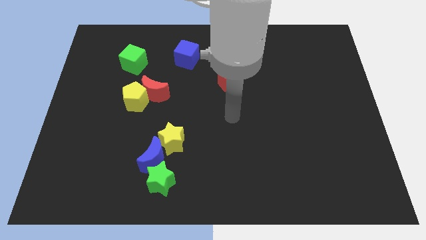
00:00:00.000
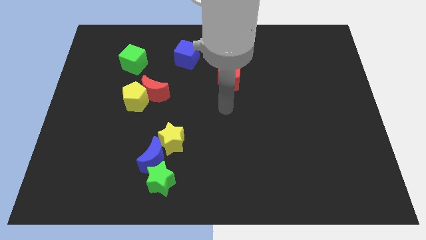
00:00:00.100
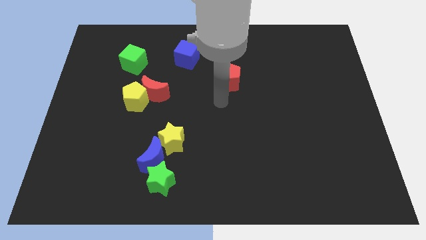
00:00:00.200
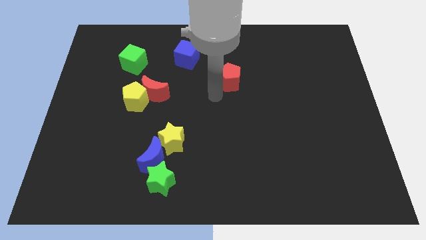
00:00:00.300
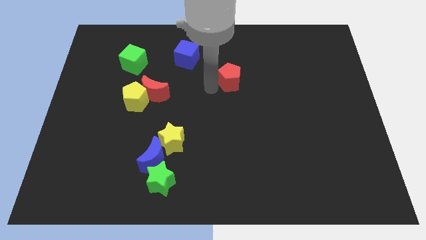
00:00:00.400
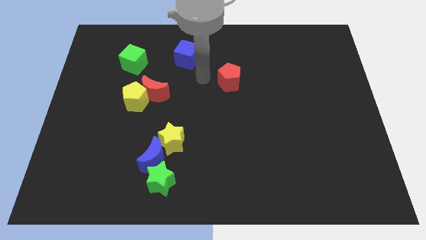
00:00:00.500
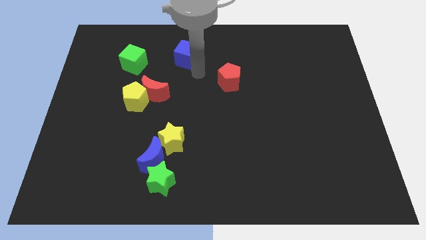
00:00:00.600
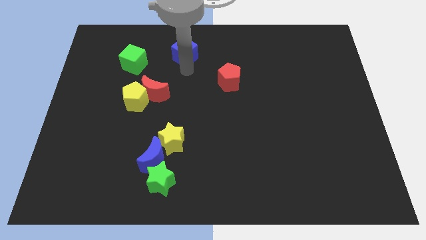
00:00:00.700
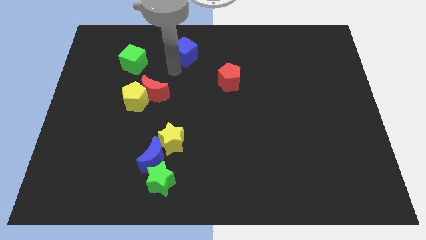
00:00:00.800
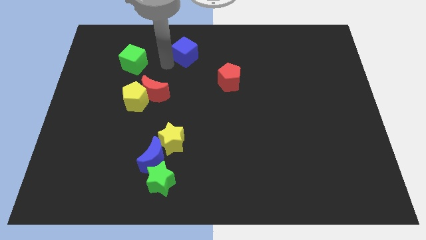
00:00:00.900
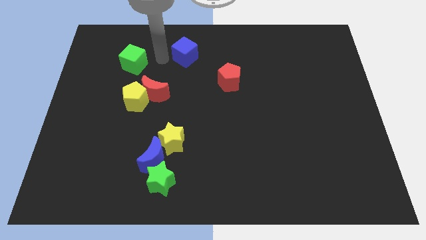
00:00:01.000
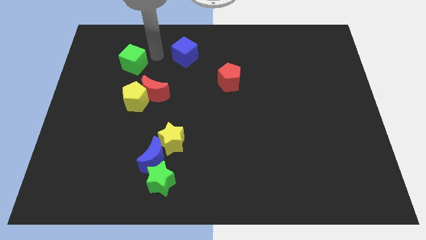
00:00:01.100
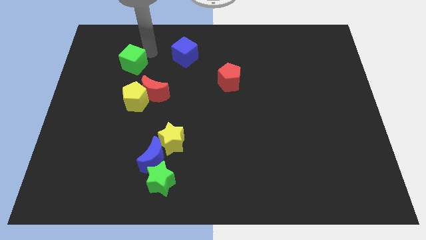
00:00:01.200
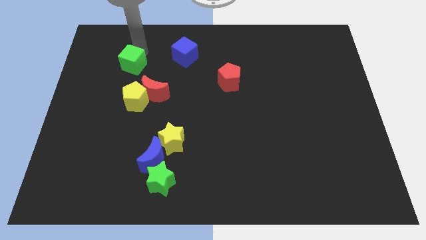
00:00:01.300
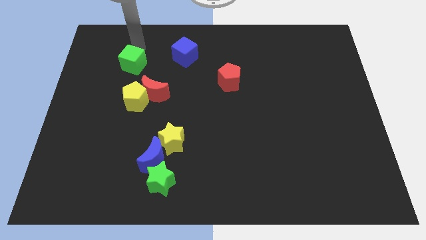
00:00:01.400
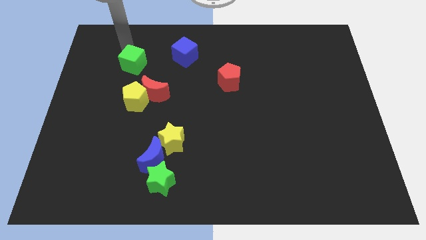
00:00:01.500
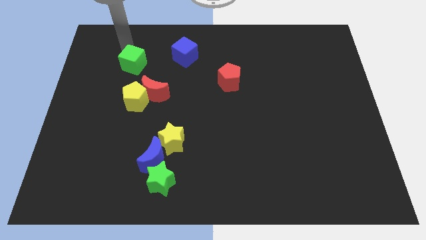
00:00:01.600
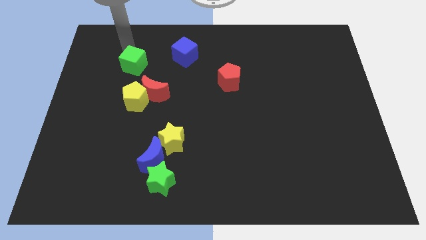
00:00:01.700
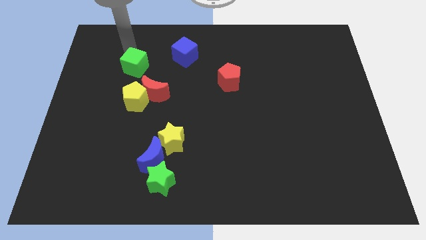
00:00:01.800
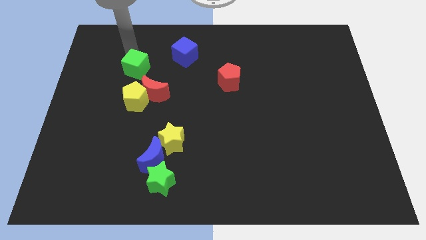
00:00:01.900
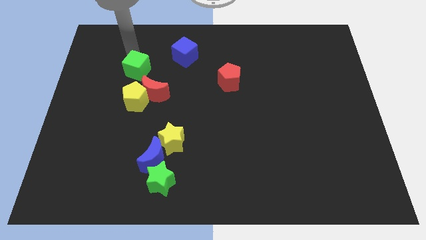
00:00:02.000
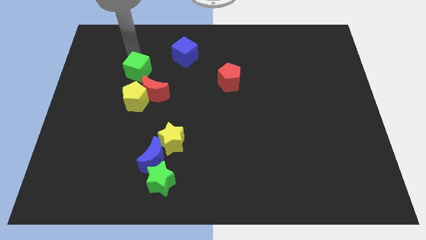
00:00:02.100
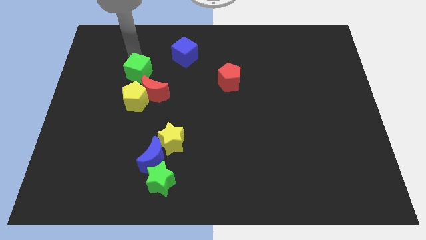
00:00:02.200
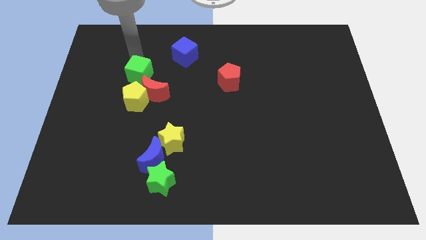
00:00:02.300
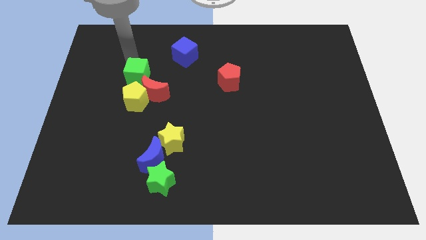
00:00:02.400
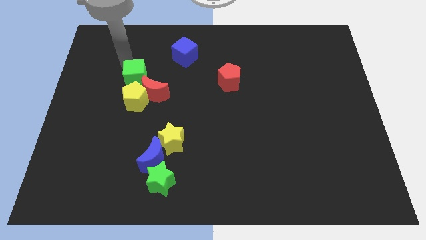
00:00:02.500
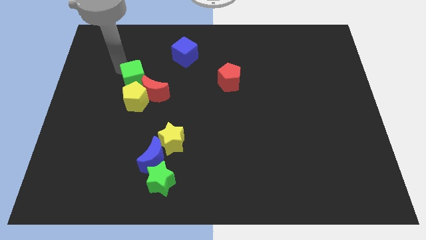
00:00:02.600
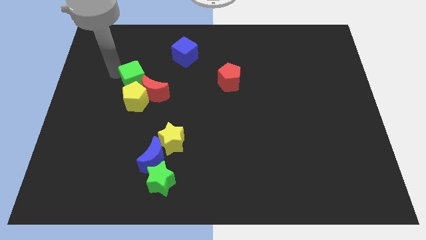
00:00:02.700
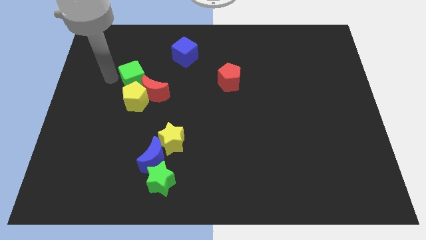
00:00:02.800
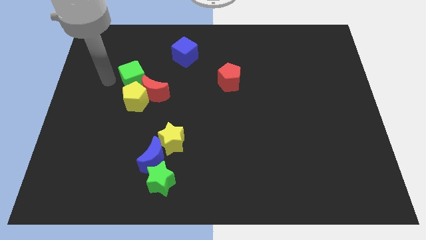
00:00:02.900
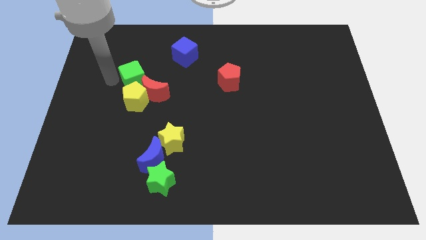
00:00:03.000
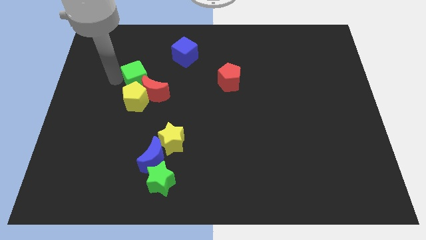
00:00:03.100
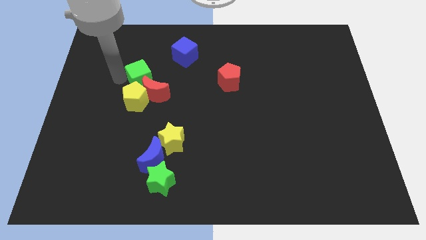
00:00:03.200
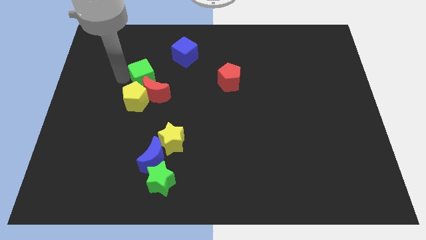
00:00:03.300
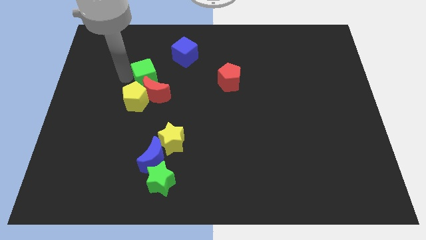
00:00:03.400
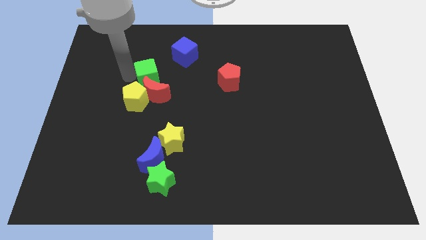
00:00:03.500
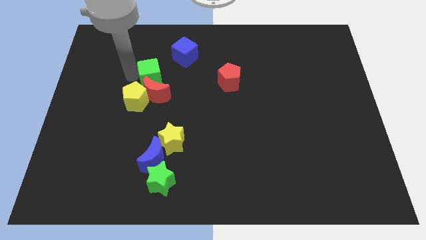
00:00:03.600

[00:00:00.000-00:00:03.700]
slightly push the green cube diagonally down and right

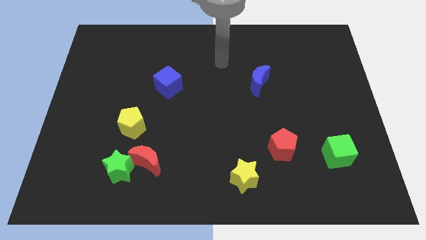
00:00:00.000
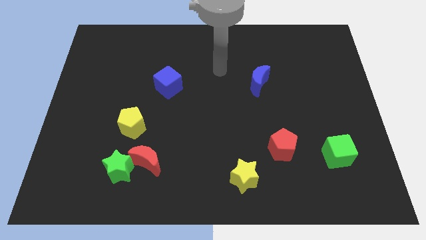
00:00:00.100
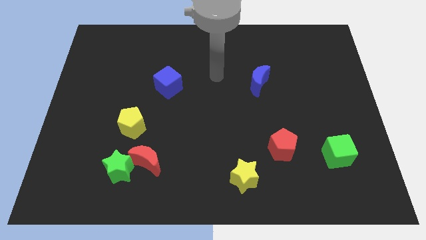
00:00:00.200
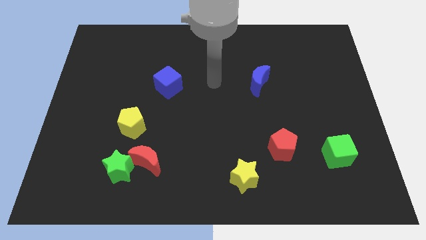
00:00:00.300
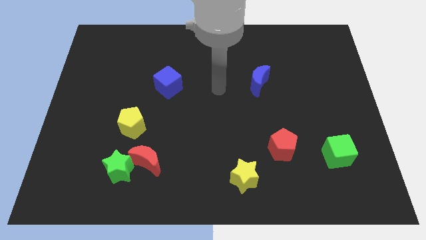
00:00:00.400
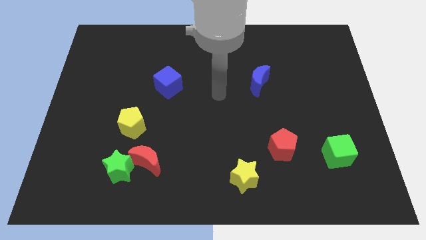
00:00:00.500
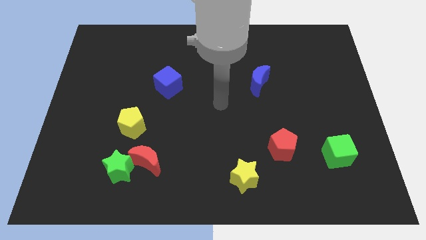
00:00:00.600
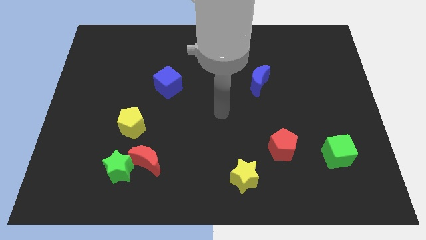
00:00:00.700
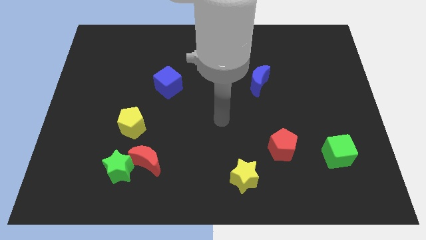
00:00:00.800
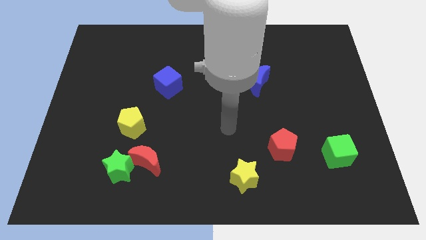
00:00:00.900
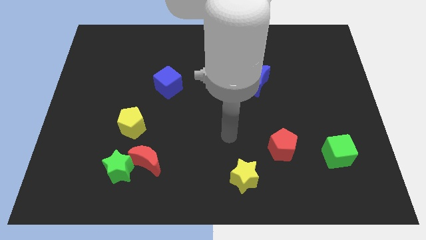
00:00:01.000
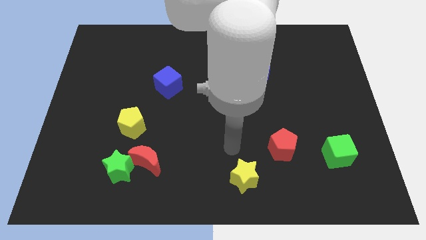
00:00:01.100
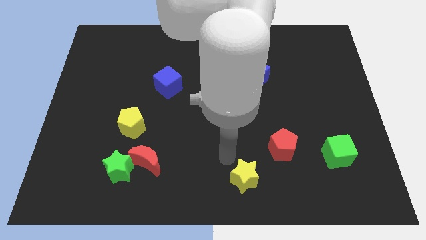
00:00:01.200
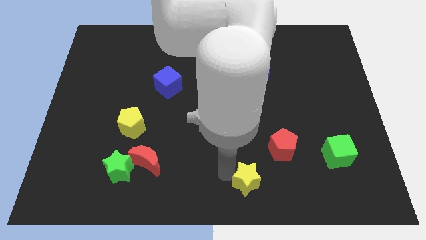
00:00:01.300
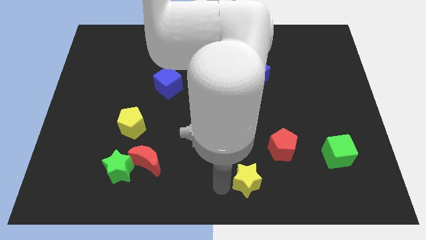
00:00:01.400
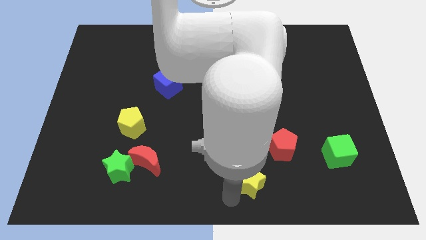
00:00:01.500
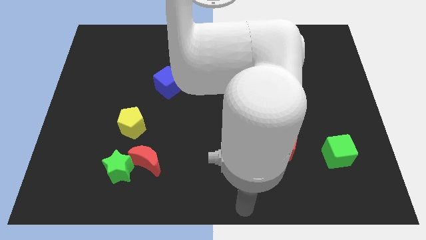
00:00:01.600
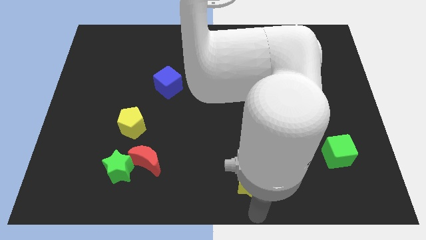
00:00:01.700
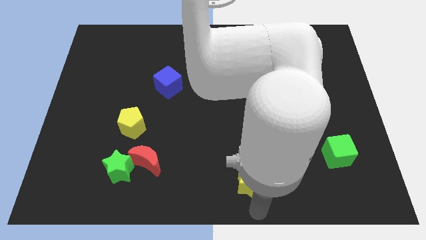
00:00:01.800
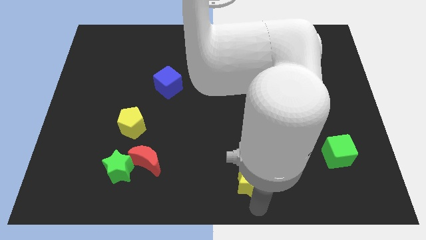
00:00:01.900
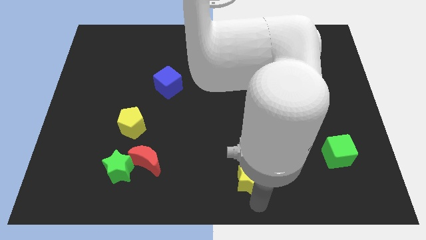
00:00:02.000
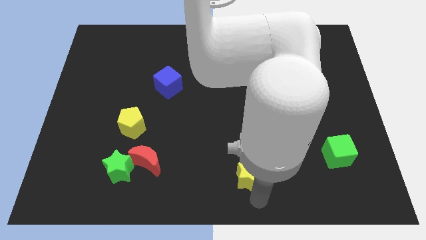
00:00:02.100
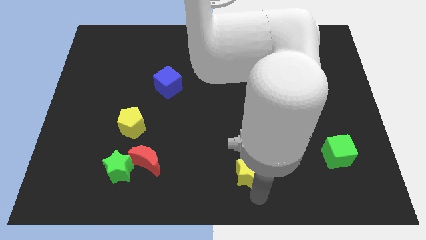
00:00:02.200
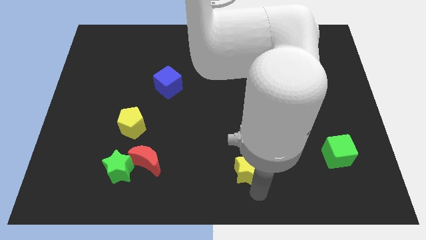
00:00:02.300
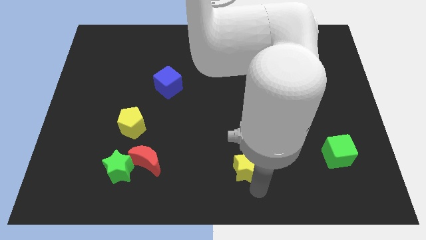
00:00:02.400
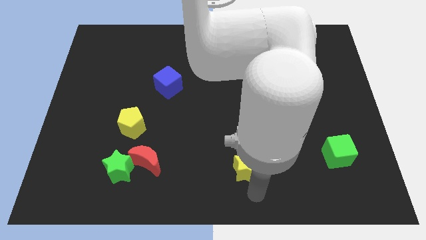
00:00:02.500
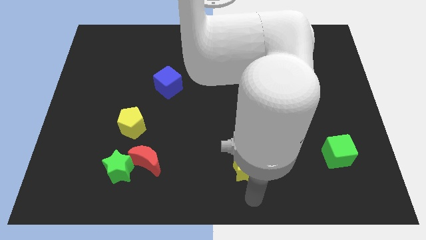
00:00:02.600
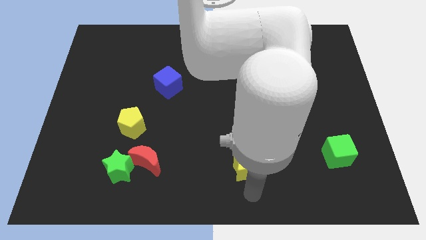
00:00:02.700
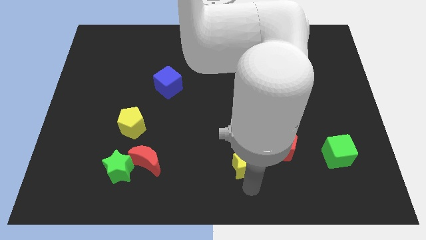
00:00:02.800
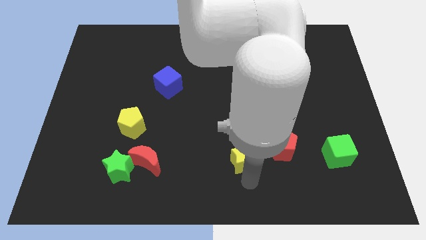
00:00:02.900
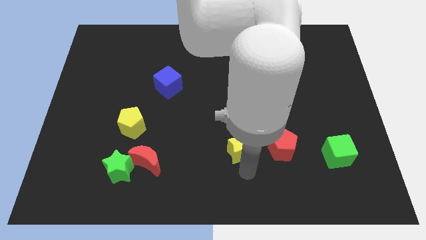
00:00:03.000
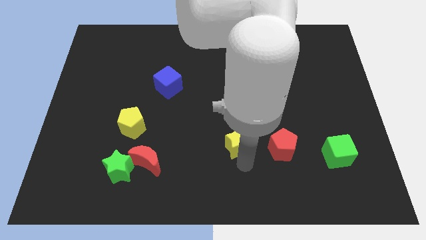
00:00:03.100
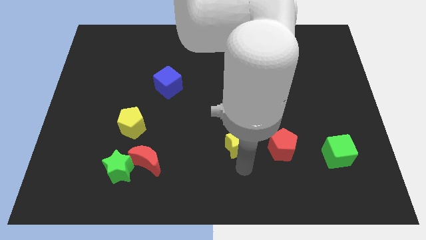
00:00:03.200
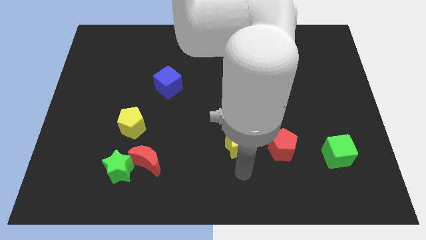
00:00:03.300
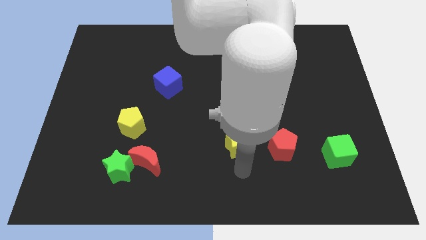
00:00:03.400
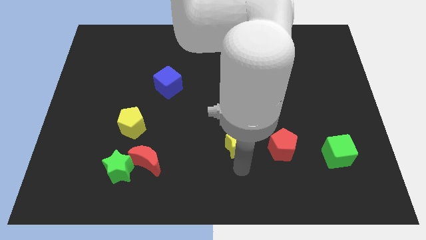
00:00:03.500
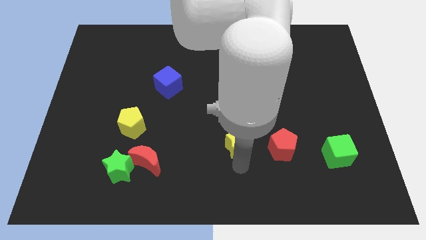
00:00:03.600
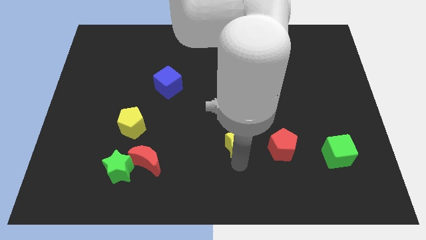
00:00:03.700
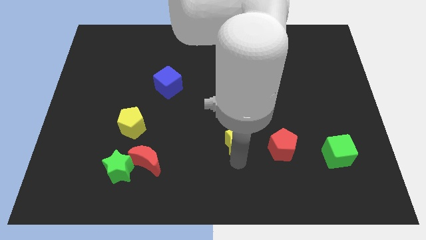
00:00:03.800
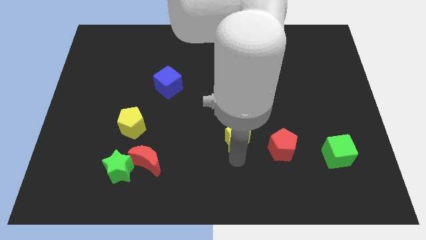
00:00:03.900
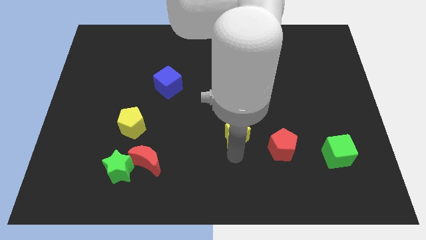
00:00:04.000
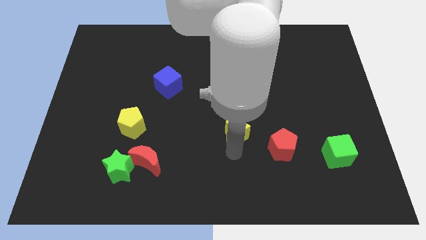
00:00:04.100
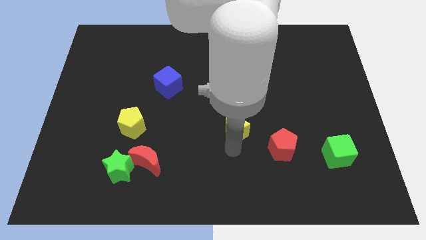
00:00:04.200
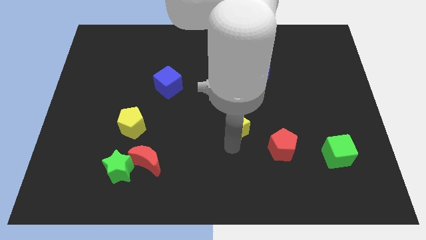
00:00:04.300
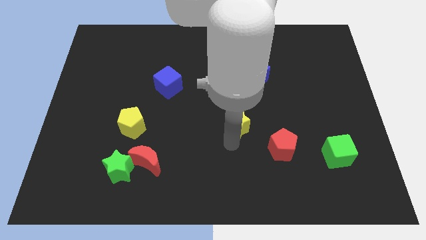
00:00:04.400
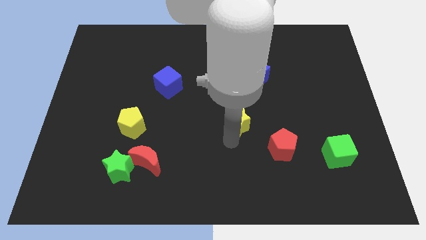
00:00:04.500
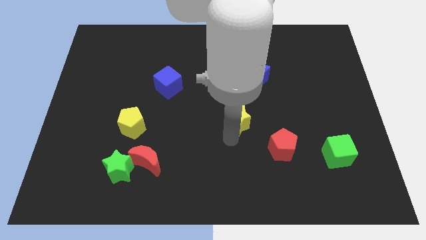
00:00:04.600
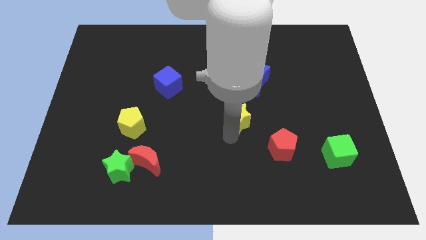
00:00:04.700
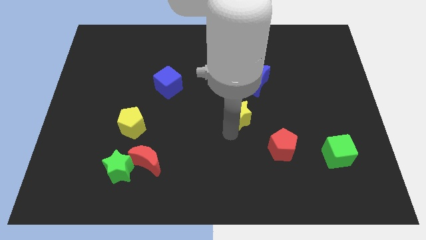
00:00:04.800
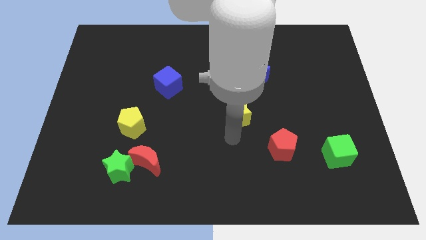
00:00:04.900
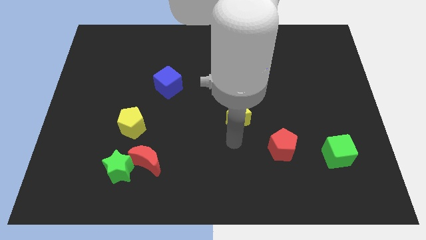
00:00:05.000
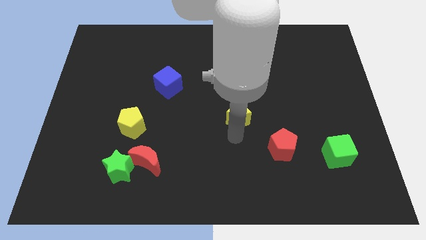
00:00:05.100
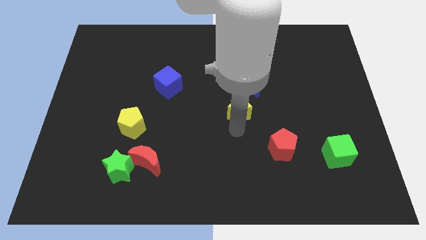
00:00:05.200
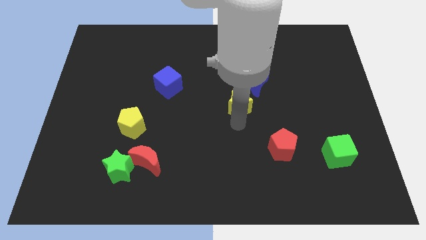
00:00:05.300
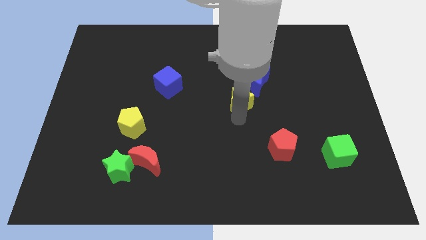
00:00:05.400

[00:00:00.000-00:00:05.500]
move the yellow star up
